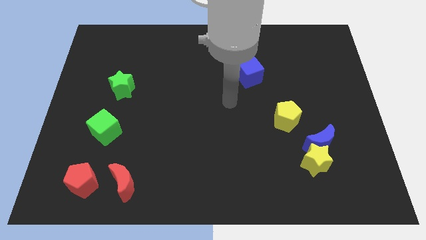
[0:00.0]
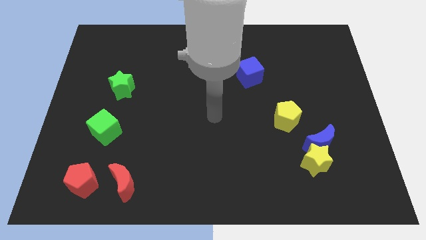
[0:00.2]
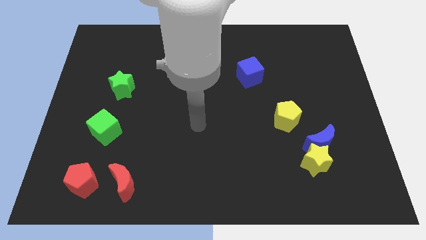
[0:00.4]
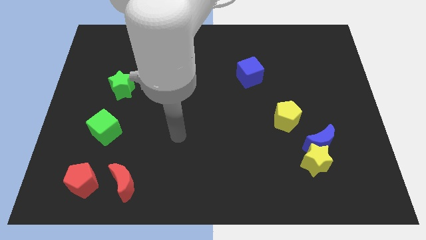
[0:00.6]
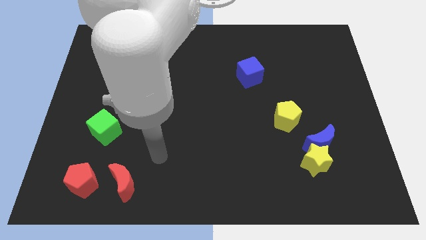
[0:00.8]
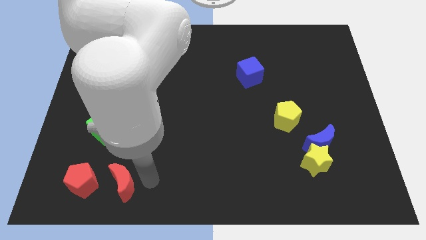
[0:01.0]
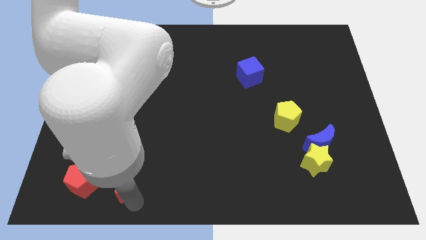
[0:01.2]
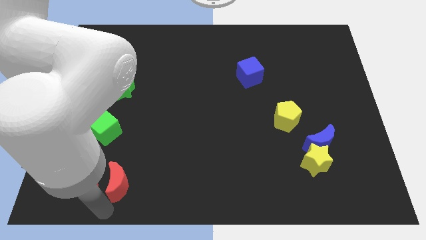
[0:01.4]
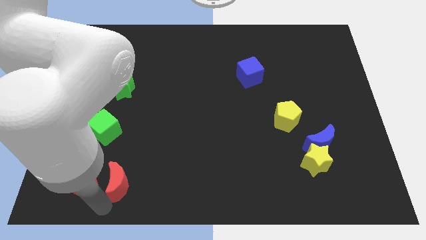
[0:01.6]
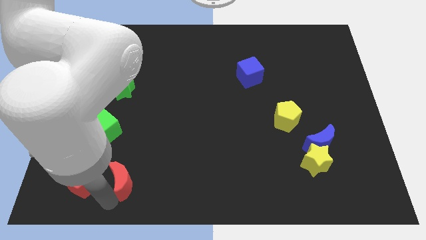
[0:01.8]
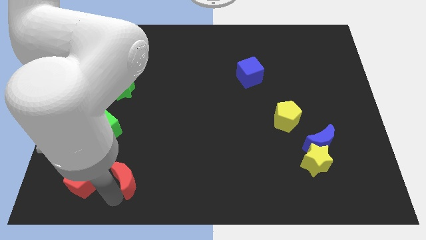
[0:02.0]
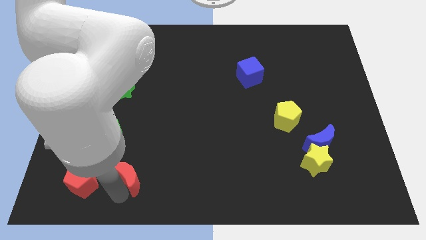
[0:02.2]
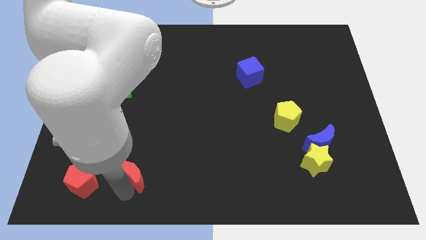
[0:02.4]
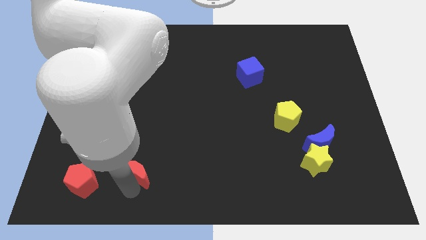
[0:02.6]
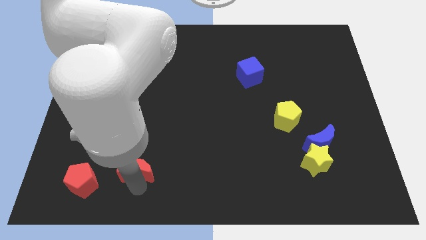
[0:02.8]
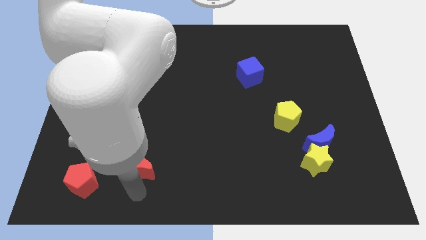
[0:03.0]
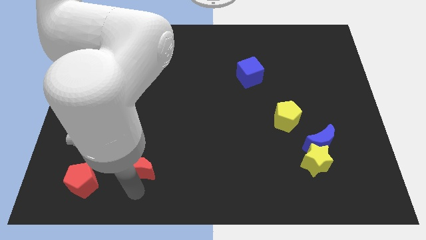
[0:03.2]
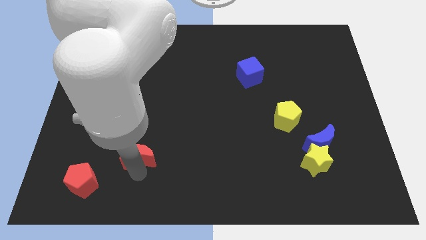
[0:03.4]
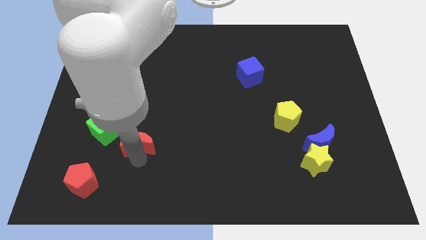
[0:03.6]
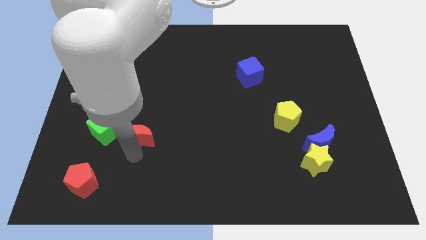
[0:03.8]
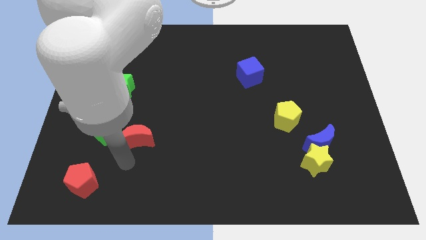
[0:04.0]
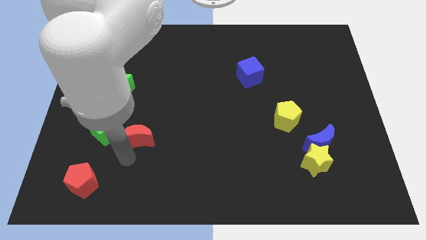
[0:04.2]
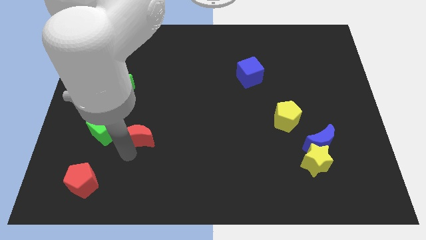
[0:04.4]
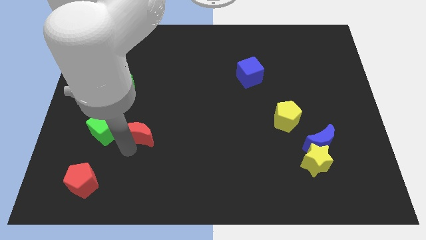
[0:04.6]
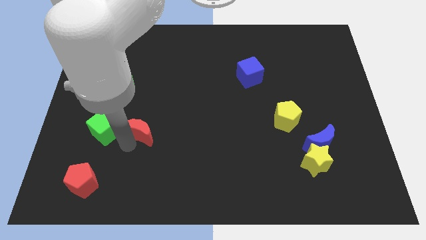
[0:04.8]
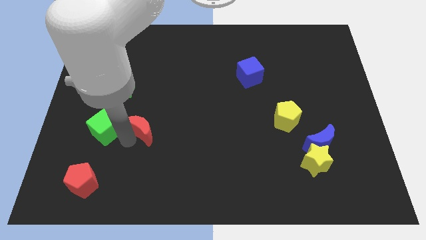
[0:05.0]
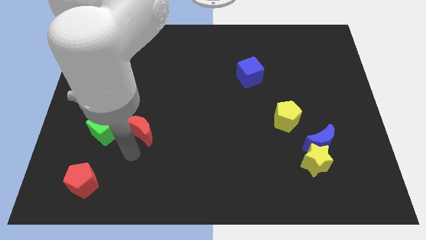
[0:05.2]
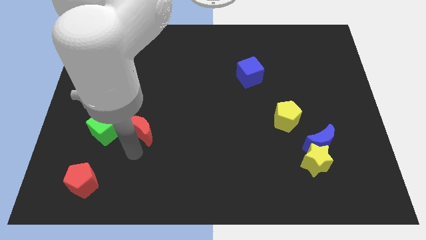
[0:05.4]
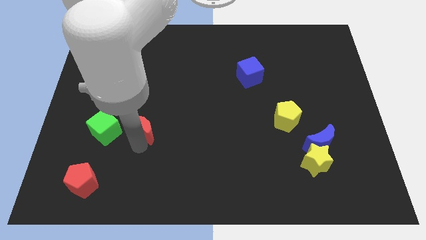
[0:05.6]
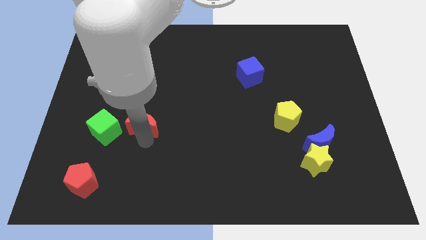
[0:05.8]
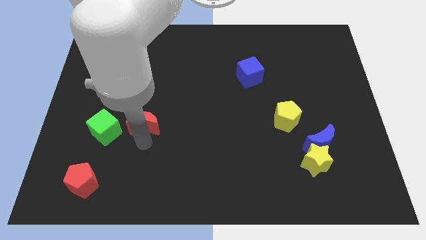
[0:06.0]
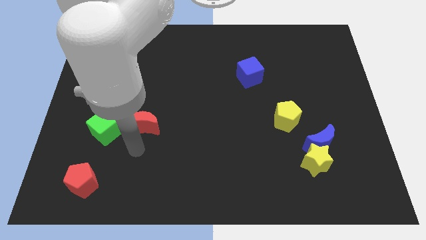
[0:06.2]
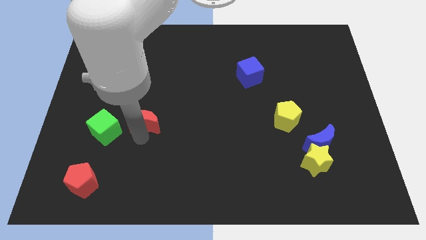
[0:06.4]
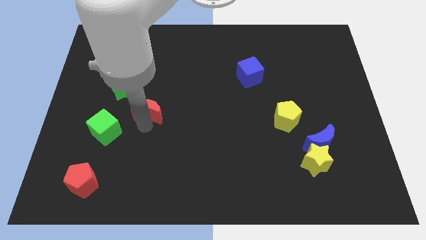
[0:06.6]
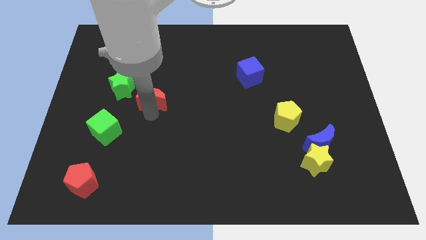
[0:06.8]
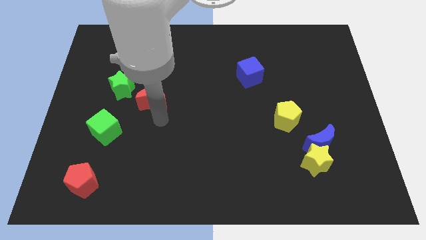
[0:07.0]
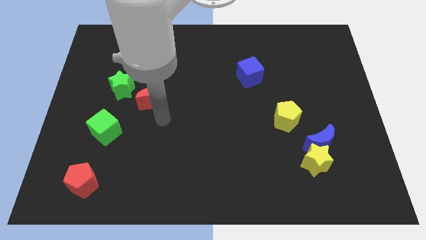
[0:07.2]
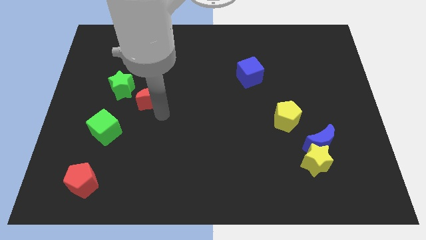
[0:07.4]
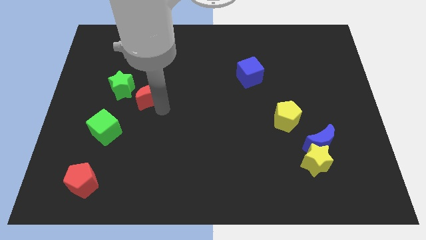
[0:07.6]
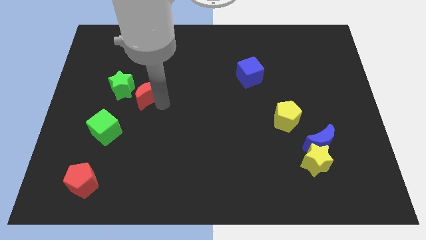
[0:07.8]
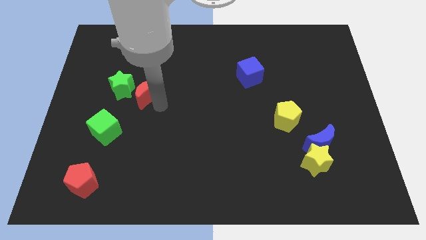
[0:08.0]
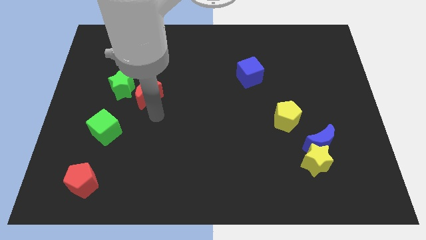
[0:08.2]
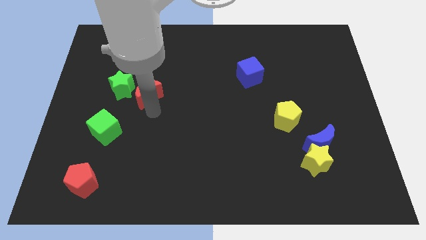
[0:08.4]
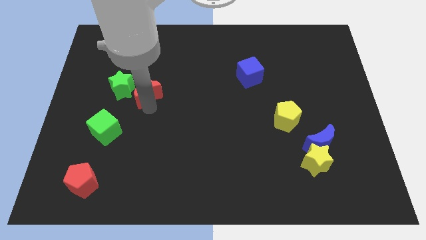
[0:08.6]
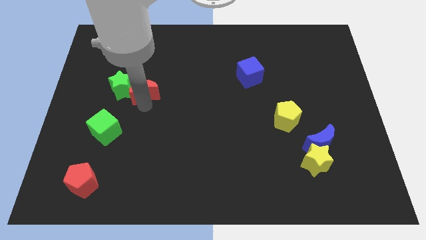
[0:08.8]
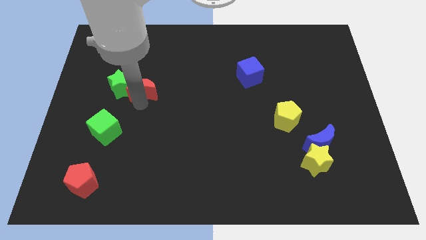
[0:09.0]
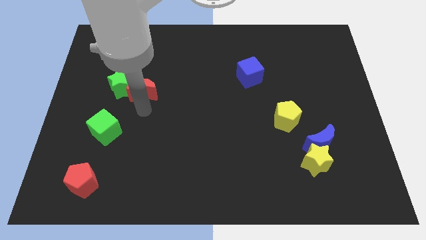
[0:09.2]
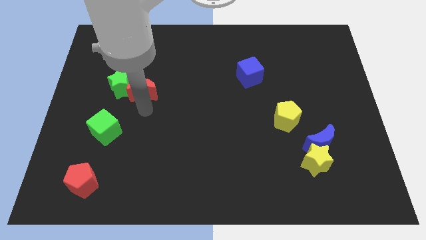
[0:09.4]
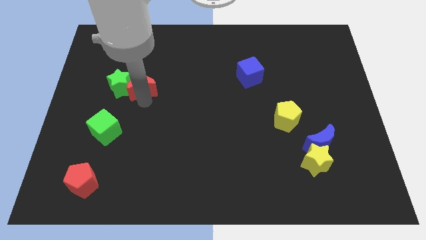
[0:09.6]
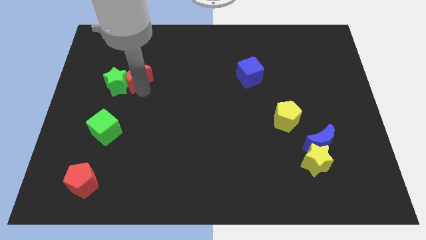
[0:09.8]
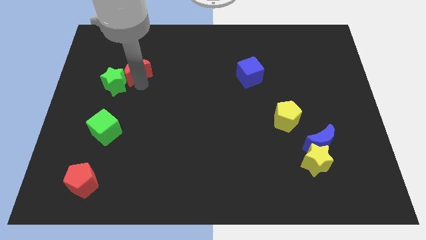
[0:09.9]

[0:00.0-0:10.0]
move the red moon to the top side of the green star

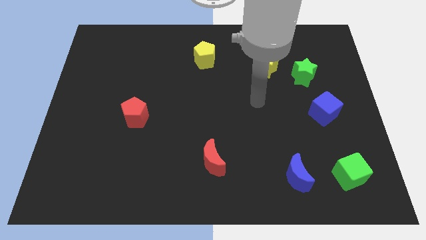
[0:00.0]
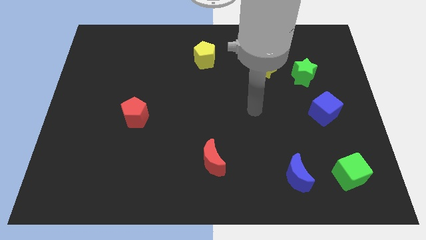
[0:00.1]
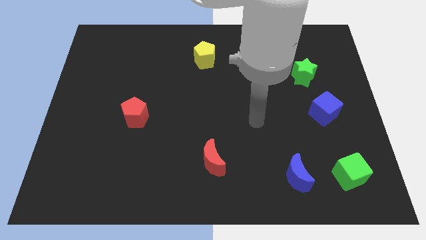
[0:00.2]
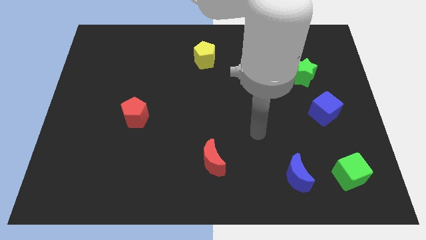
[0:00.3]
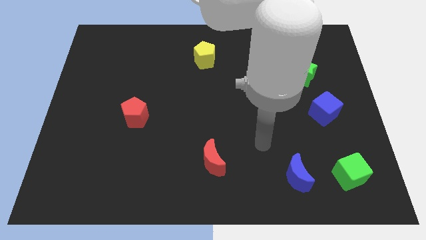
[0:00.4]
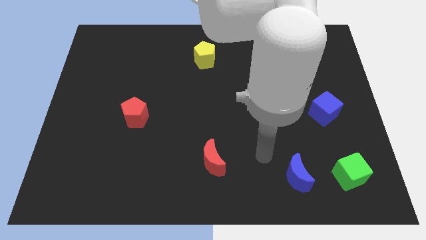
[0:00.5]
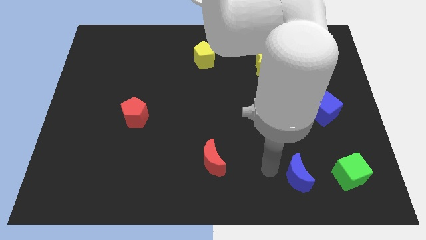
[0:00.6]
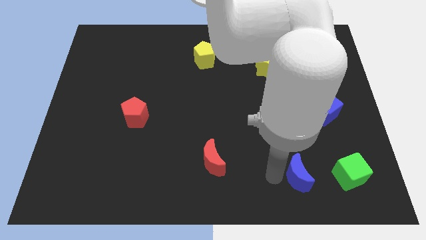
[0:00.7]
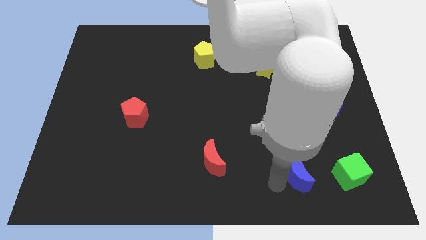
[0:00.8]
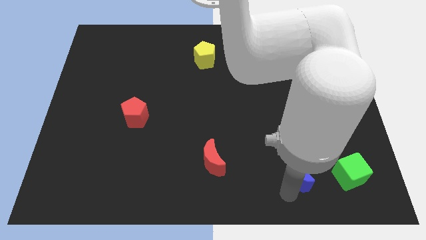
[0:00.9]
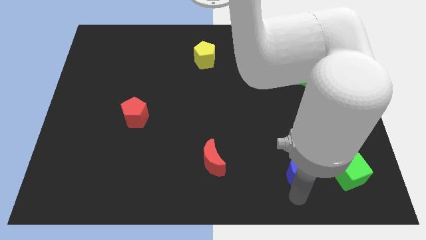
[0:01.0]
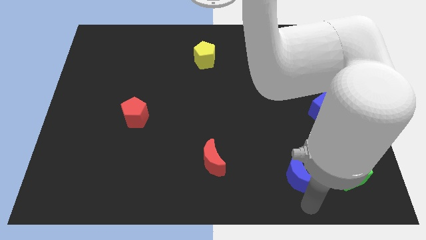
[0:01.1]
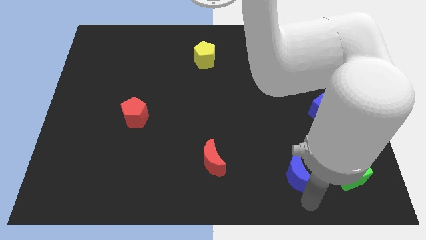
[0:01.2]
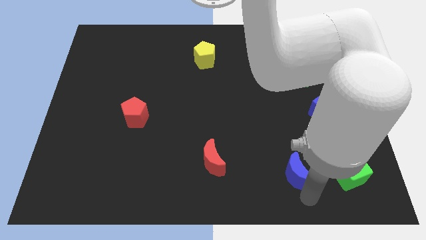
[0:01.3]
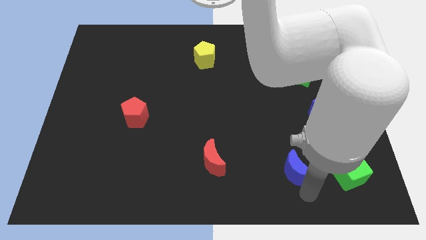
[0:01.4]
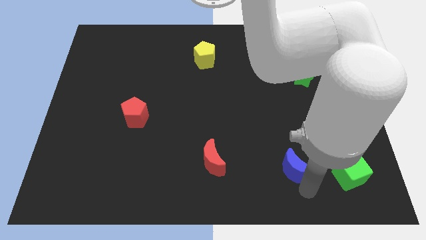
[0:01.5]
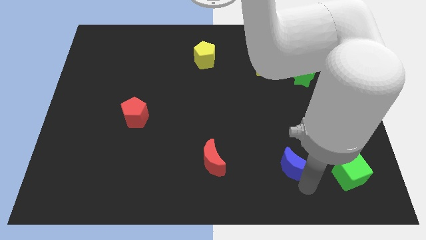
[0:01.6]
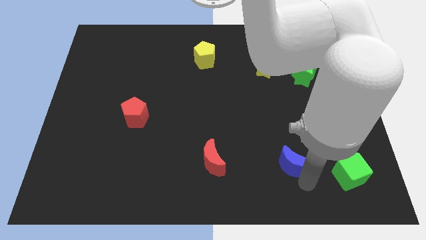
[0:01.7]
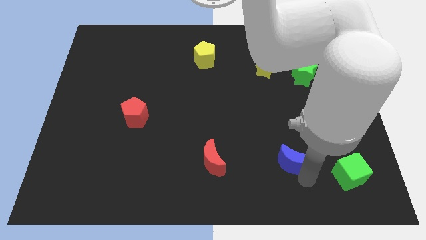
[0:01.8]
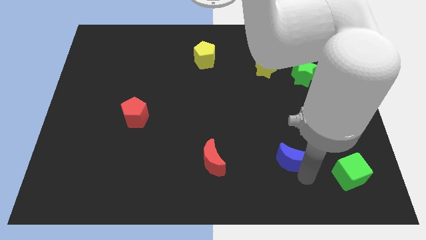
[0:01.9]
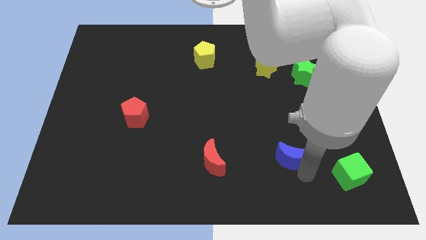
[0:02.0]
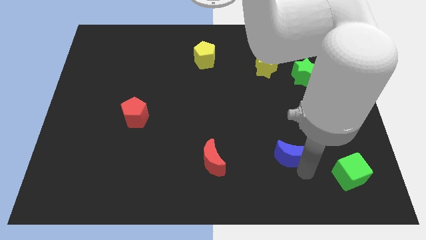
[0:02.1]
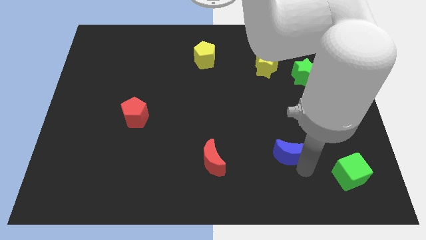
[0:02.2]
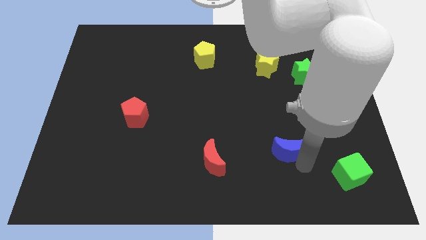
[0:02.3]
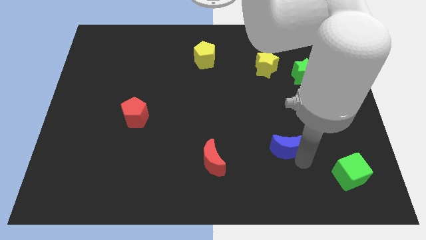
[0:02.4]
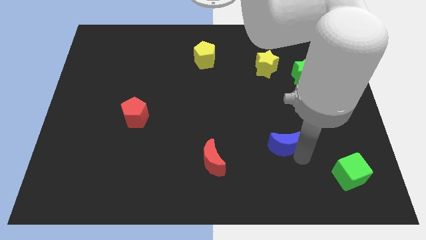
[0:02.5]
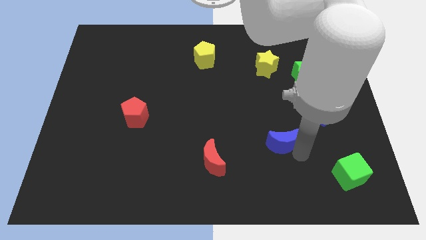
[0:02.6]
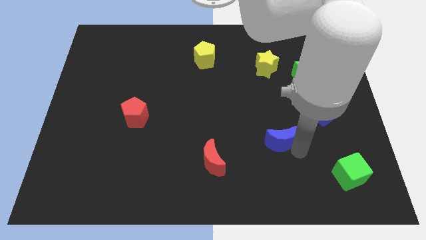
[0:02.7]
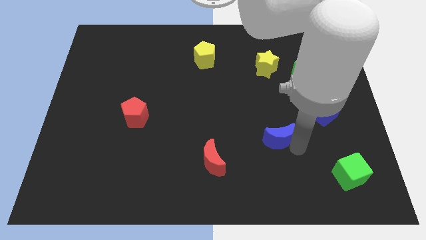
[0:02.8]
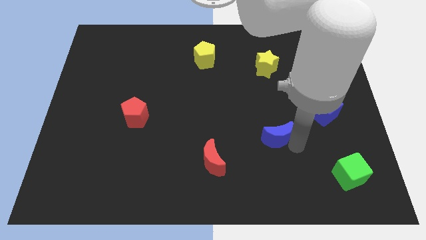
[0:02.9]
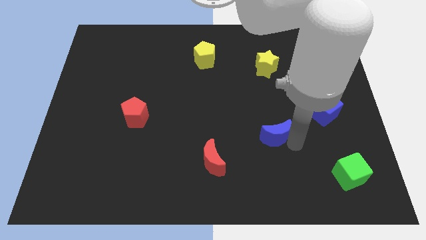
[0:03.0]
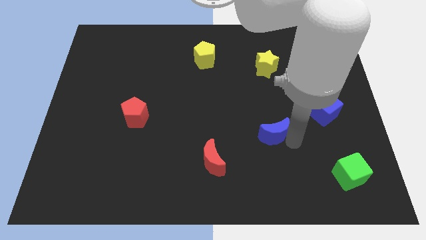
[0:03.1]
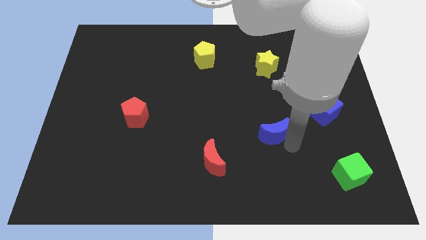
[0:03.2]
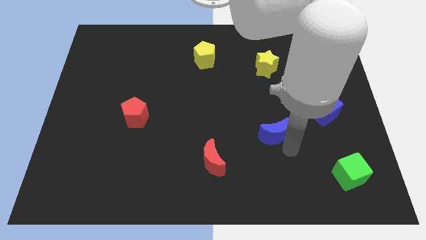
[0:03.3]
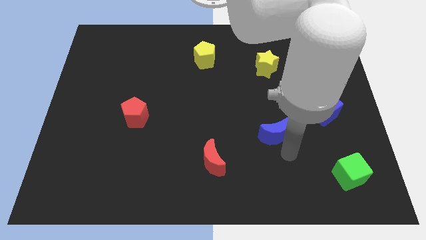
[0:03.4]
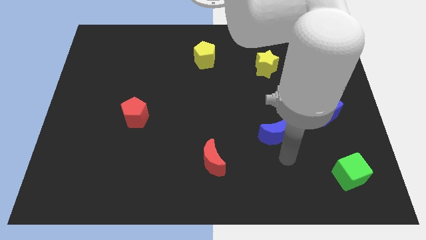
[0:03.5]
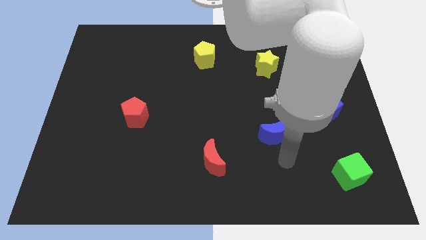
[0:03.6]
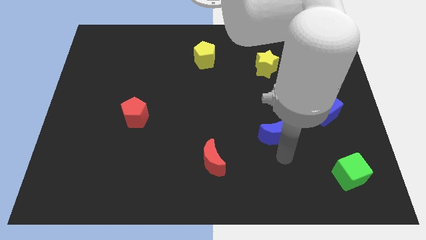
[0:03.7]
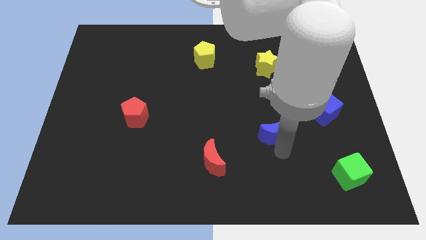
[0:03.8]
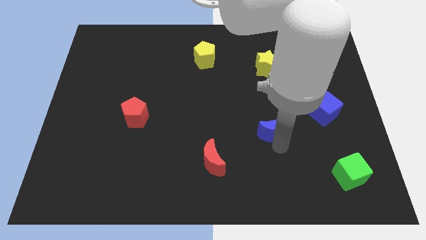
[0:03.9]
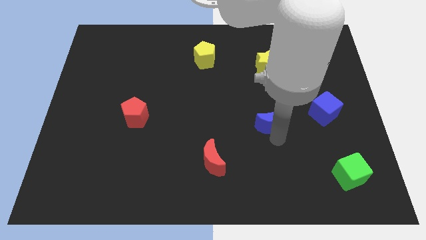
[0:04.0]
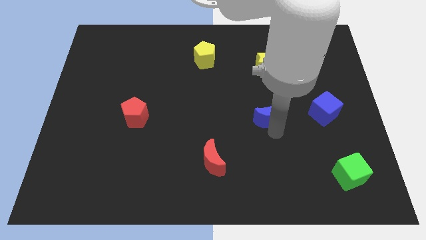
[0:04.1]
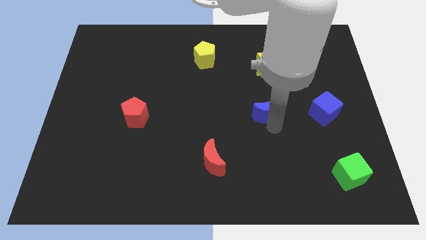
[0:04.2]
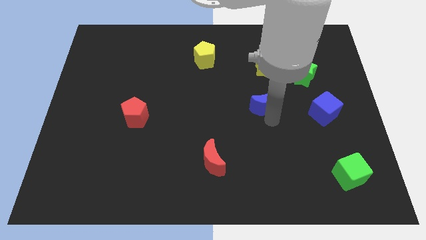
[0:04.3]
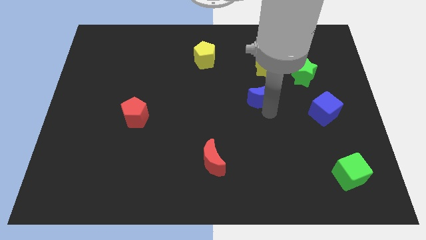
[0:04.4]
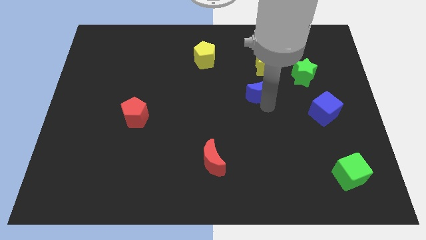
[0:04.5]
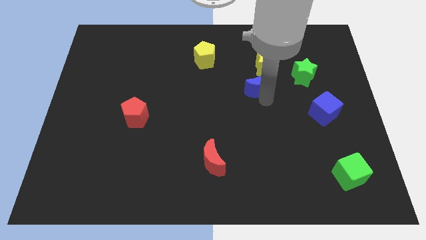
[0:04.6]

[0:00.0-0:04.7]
slide the blue moon diagonally down and to the left of the yellow star
